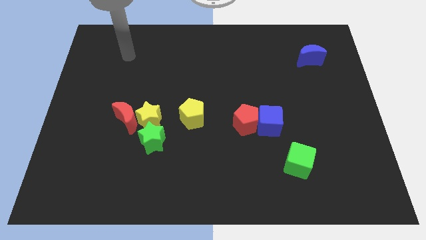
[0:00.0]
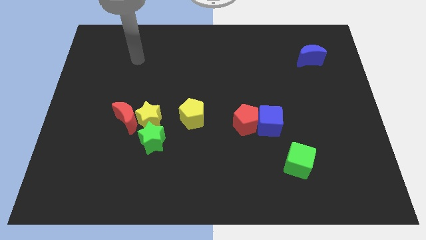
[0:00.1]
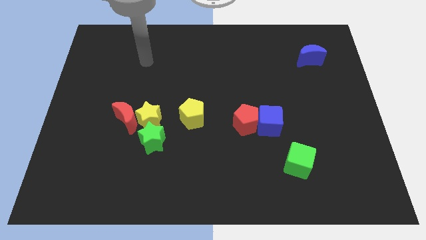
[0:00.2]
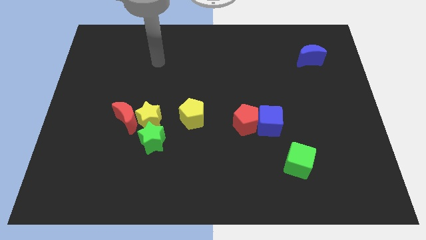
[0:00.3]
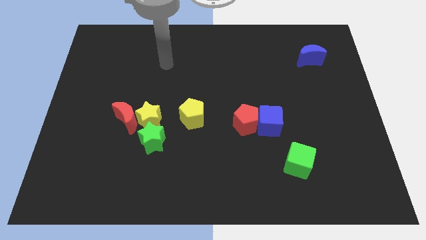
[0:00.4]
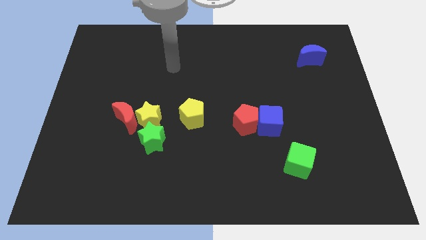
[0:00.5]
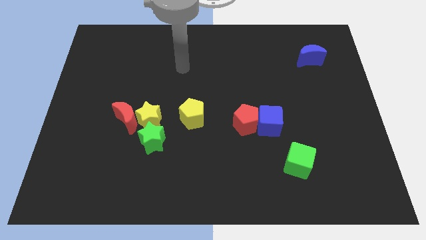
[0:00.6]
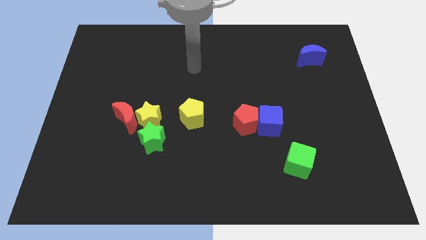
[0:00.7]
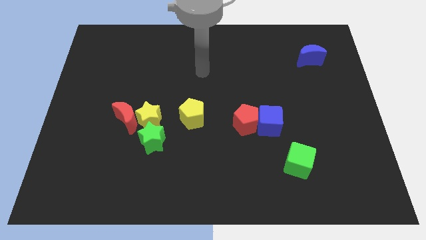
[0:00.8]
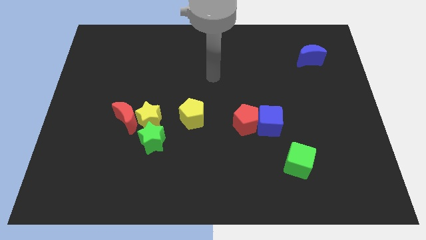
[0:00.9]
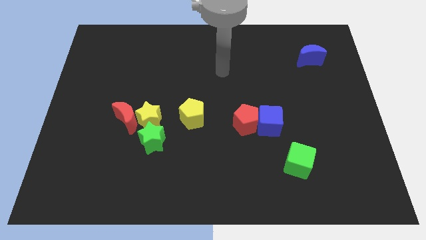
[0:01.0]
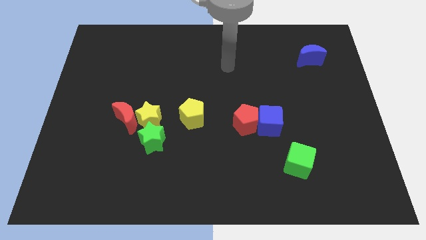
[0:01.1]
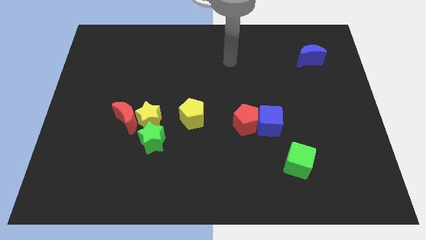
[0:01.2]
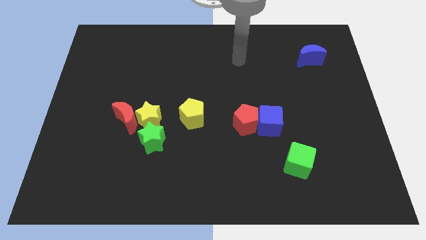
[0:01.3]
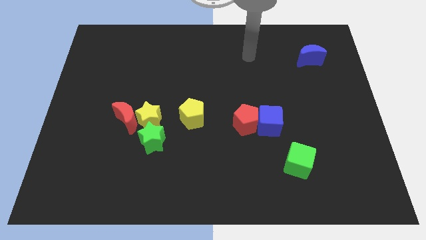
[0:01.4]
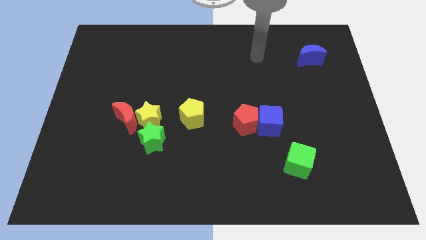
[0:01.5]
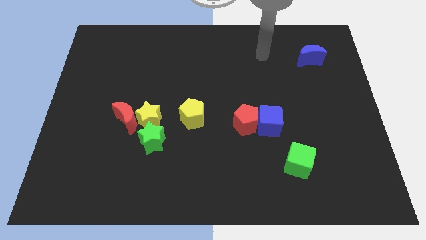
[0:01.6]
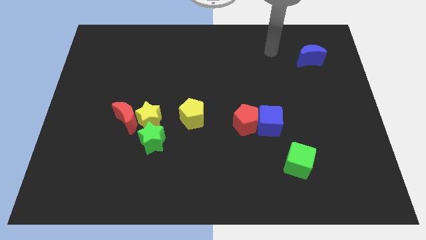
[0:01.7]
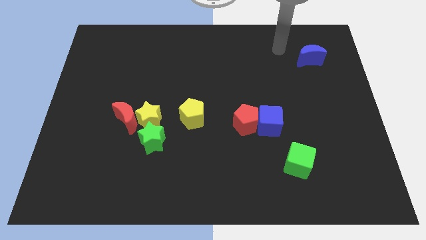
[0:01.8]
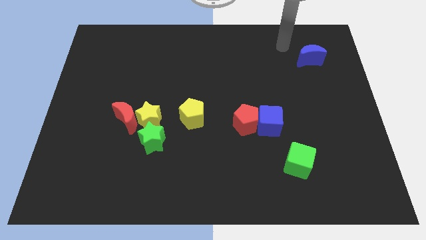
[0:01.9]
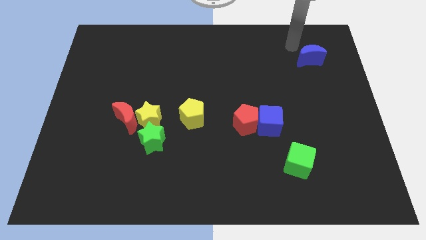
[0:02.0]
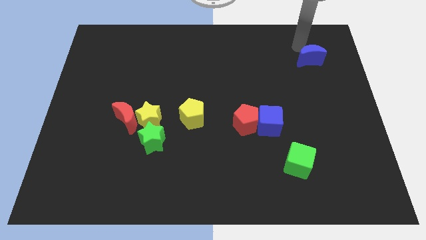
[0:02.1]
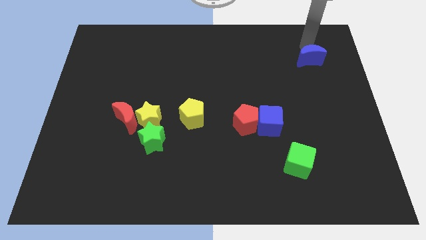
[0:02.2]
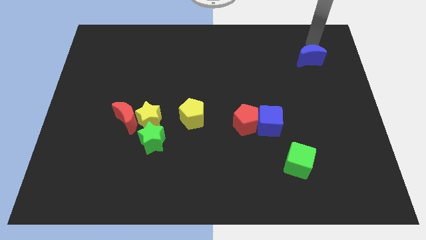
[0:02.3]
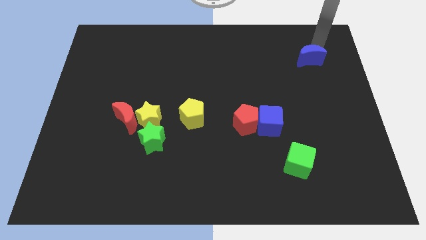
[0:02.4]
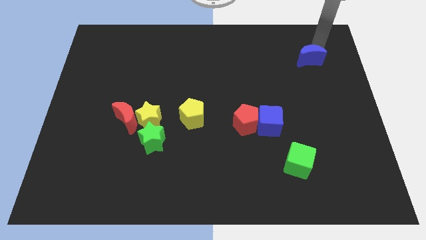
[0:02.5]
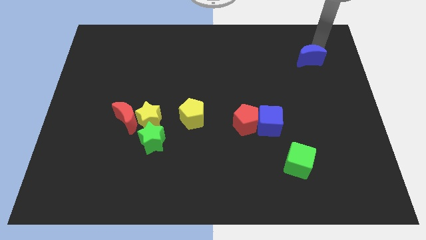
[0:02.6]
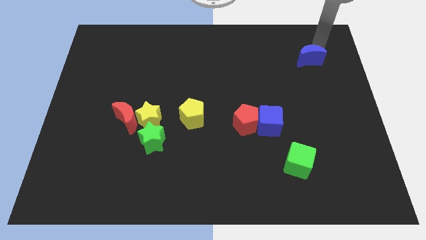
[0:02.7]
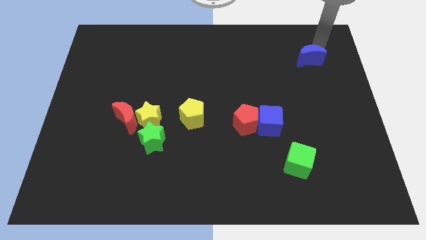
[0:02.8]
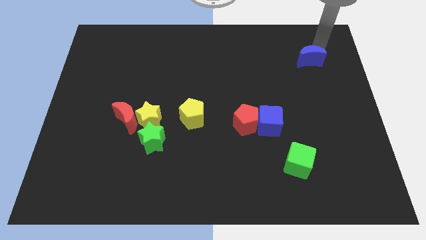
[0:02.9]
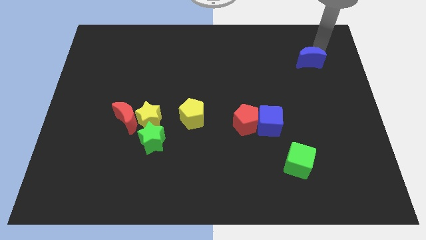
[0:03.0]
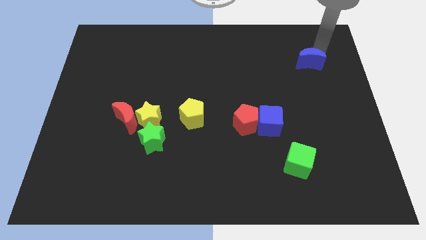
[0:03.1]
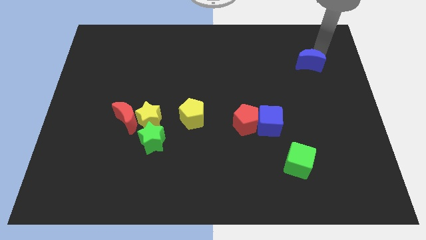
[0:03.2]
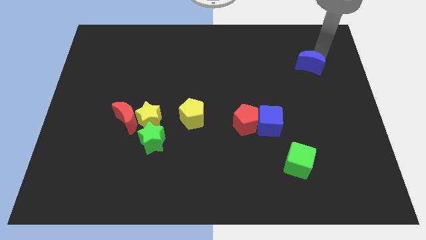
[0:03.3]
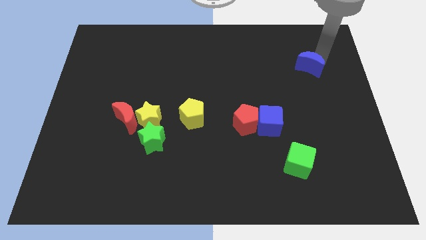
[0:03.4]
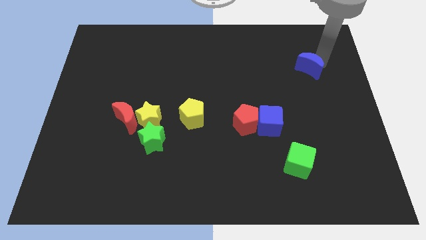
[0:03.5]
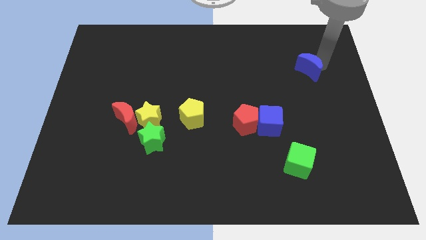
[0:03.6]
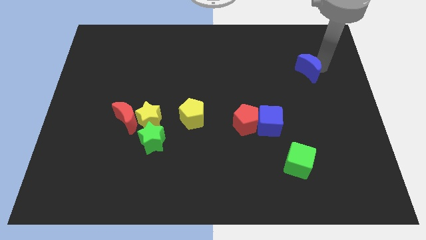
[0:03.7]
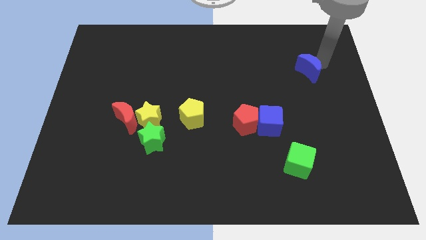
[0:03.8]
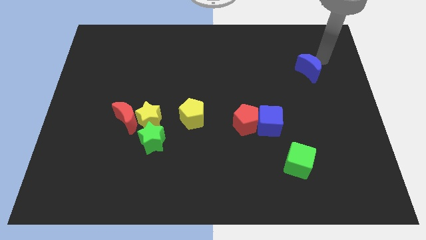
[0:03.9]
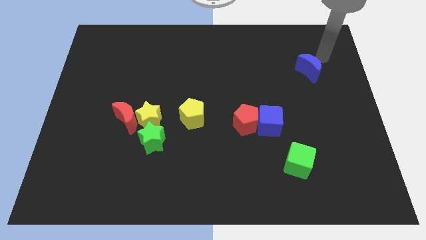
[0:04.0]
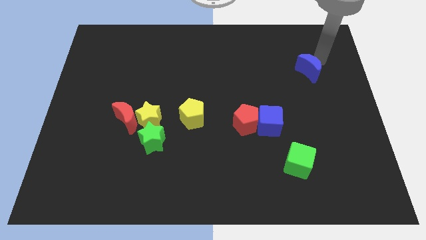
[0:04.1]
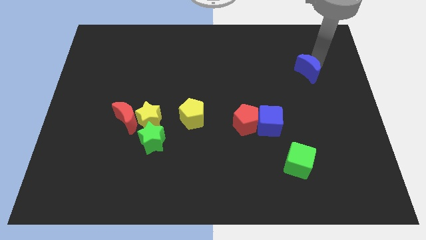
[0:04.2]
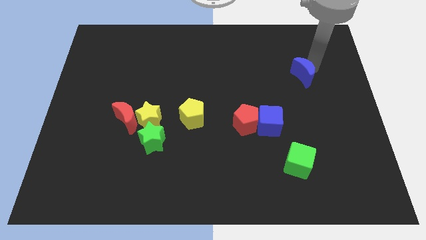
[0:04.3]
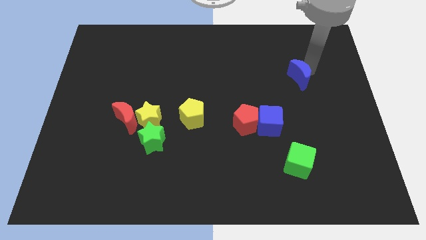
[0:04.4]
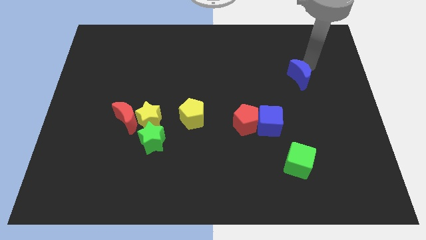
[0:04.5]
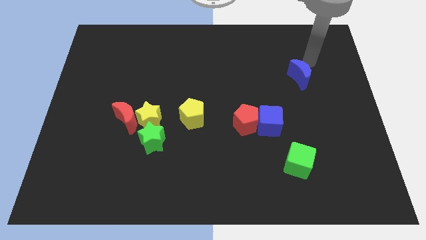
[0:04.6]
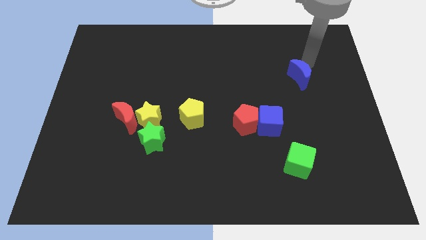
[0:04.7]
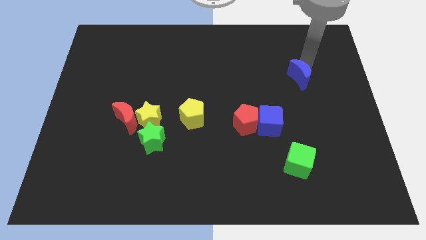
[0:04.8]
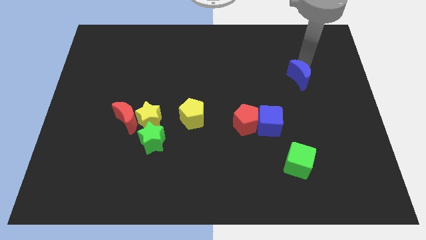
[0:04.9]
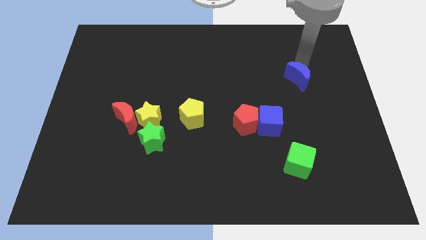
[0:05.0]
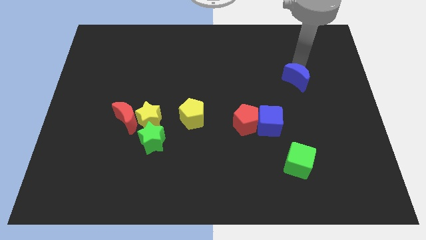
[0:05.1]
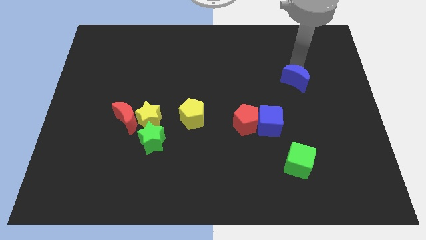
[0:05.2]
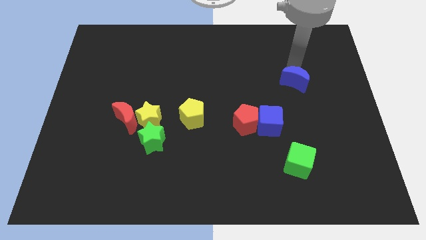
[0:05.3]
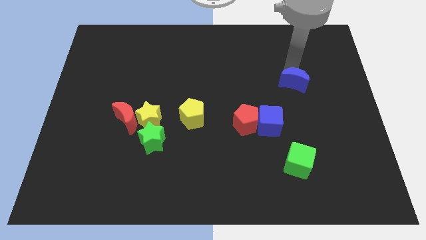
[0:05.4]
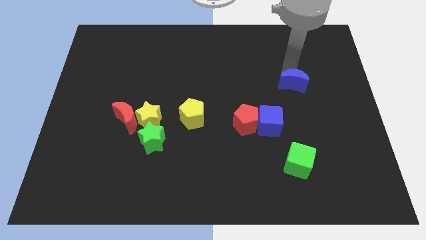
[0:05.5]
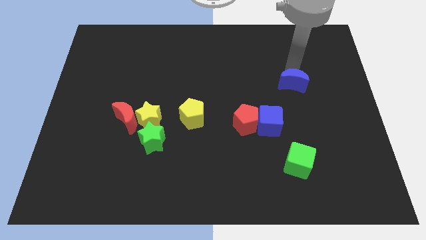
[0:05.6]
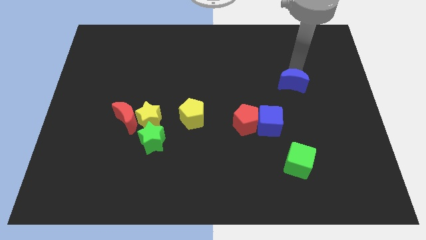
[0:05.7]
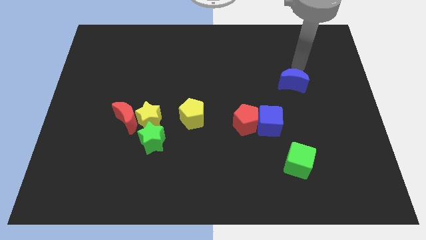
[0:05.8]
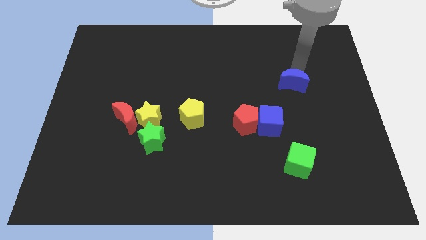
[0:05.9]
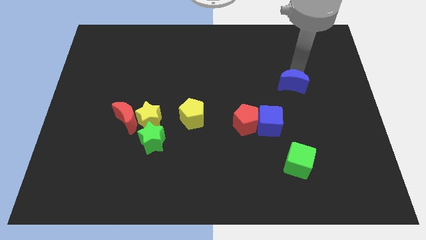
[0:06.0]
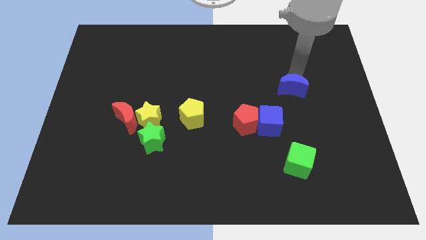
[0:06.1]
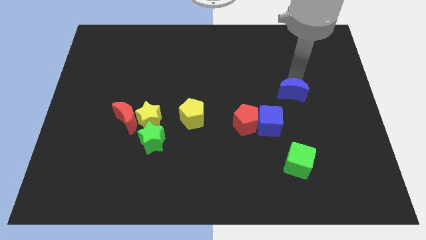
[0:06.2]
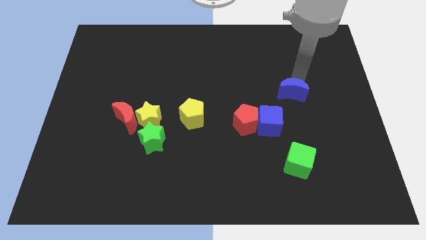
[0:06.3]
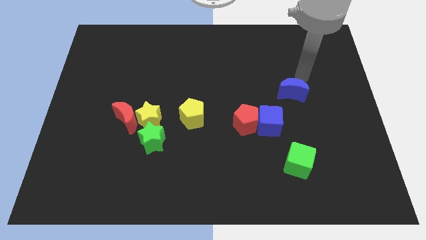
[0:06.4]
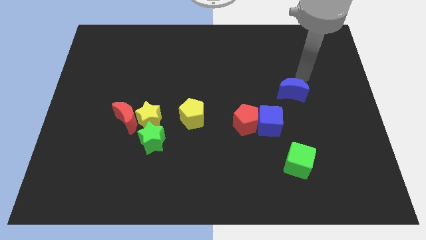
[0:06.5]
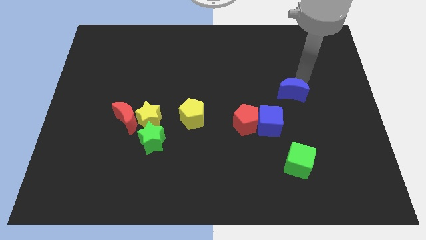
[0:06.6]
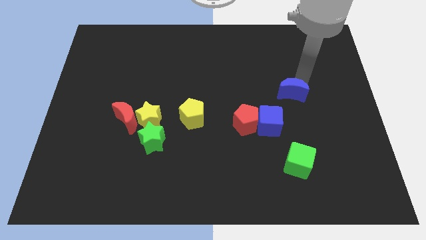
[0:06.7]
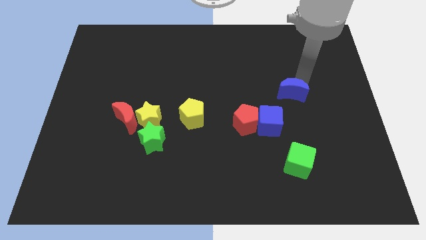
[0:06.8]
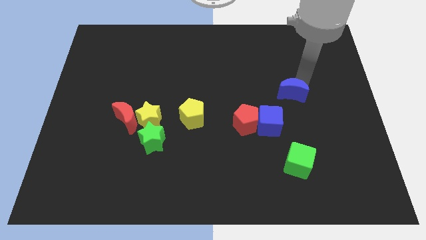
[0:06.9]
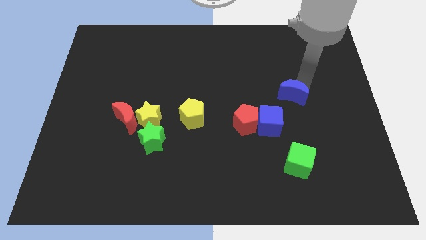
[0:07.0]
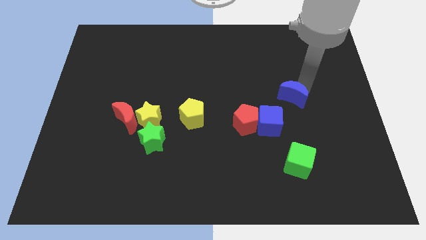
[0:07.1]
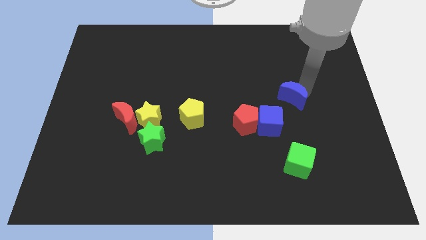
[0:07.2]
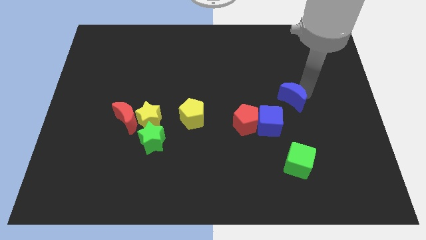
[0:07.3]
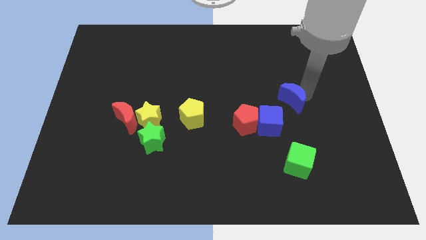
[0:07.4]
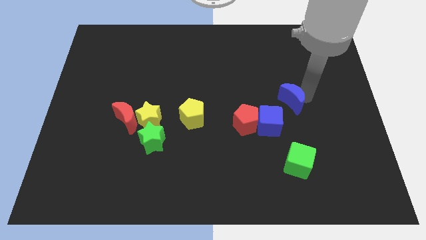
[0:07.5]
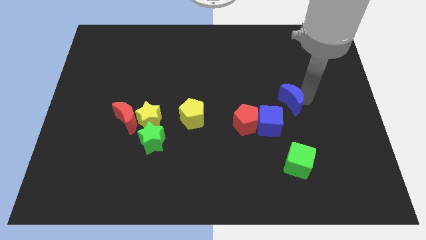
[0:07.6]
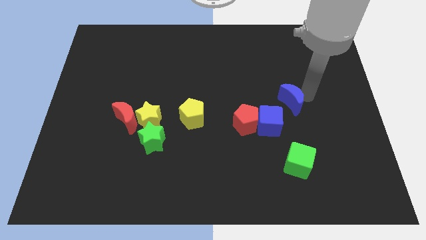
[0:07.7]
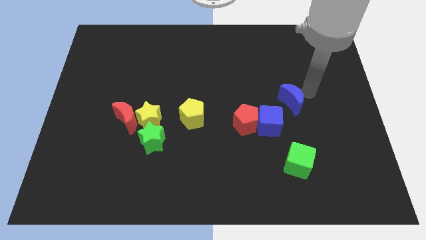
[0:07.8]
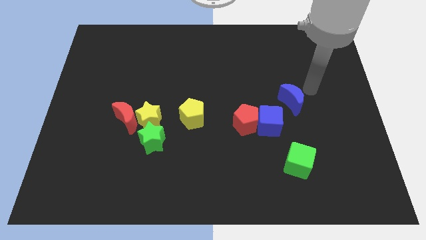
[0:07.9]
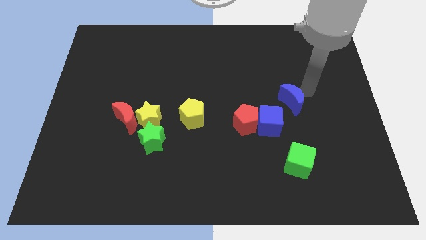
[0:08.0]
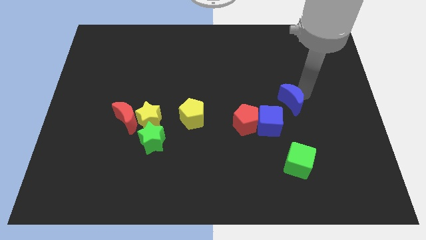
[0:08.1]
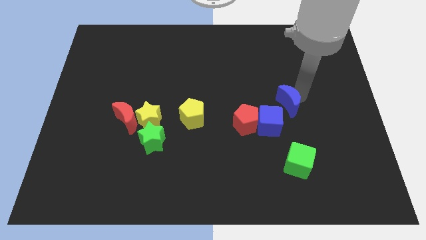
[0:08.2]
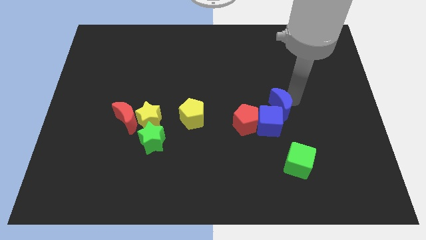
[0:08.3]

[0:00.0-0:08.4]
put the blue moon to the blue cube

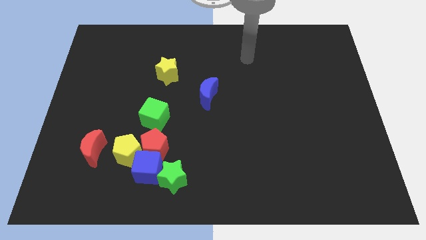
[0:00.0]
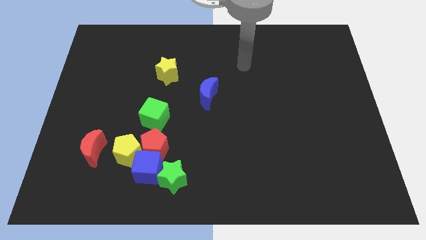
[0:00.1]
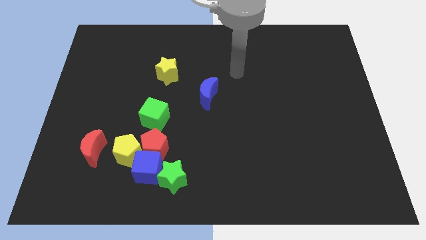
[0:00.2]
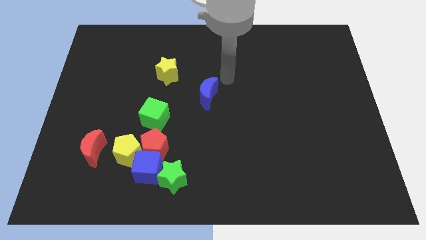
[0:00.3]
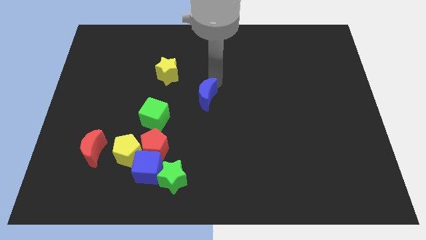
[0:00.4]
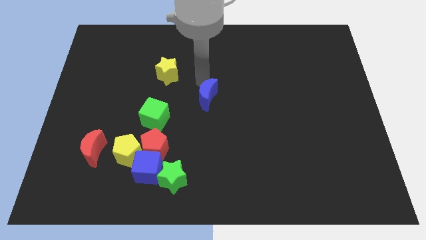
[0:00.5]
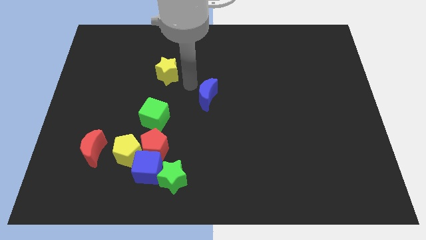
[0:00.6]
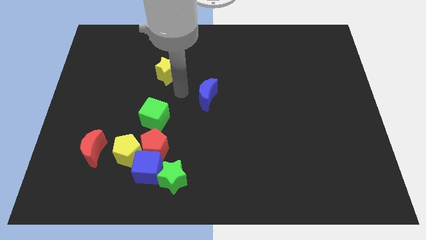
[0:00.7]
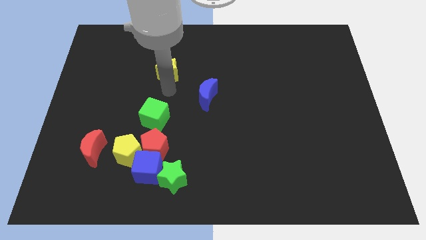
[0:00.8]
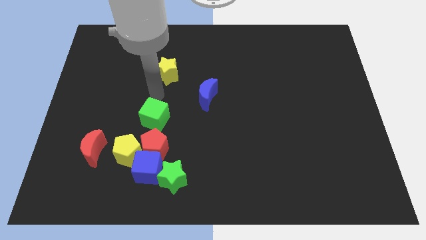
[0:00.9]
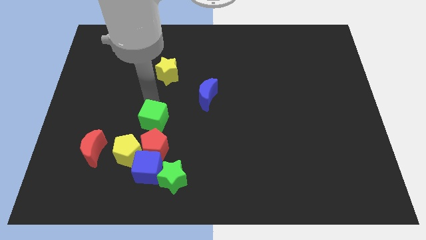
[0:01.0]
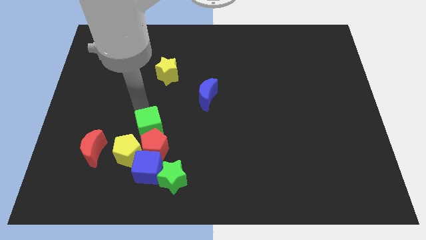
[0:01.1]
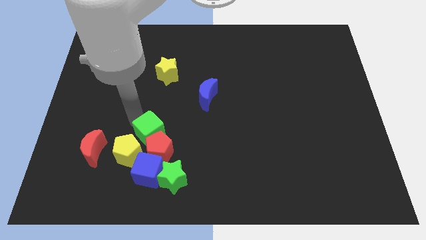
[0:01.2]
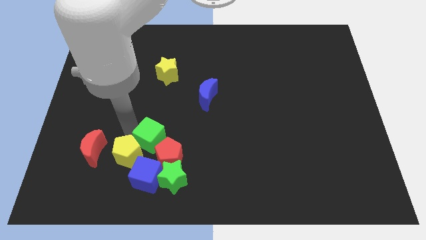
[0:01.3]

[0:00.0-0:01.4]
put the red pentagon next to the green star
